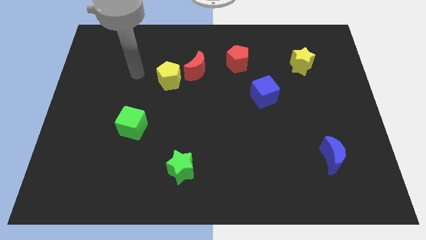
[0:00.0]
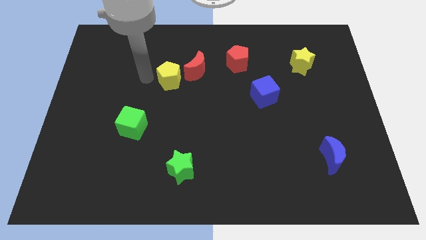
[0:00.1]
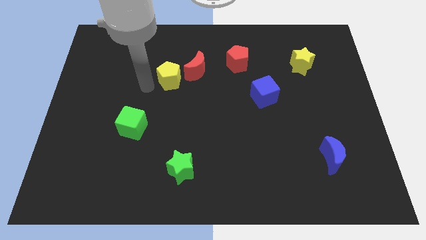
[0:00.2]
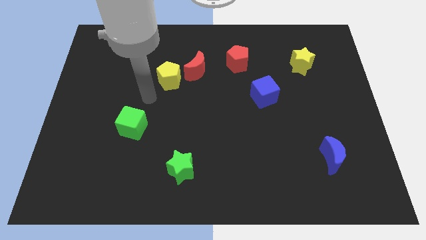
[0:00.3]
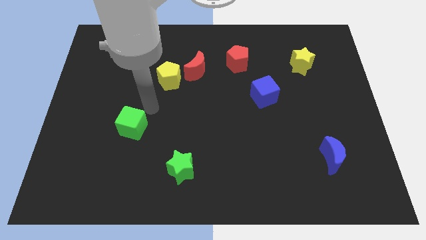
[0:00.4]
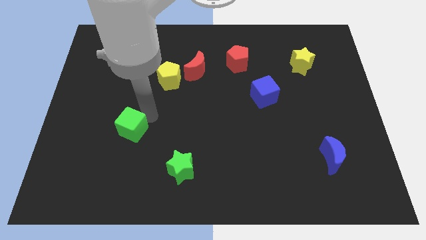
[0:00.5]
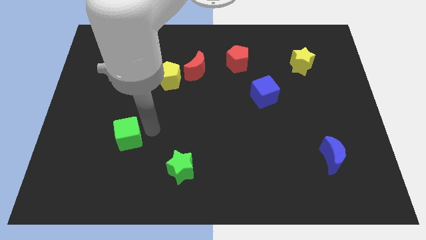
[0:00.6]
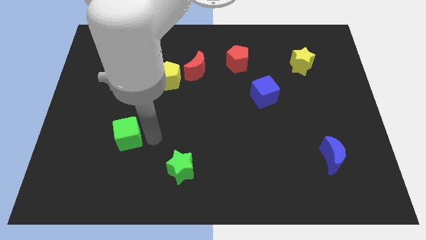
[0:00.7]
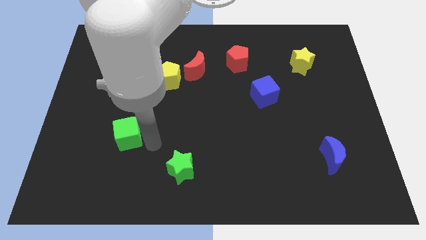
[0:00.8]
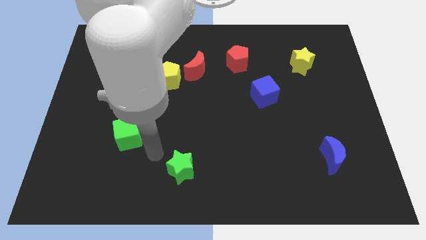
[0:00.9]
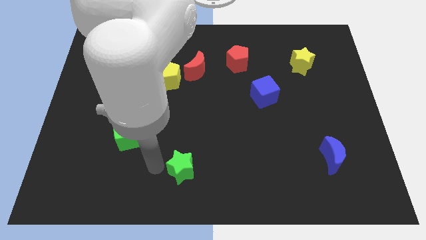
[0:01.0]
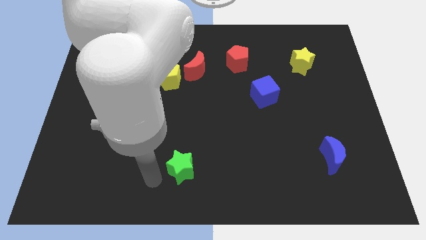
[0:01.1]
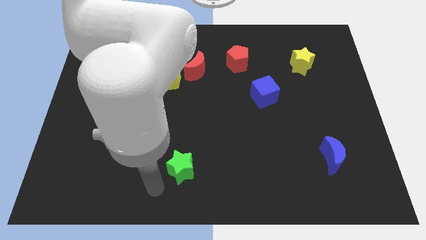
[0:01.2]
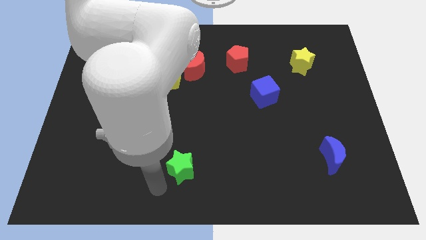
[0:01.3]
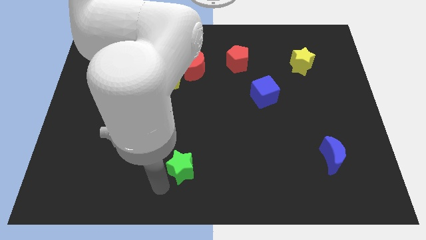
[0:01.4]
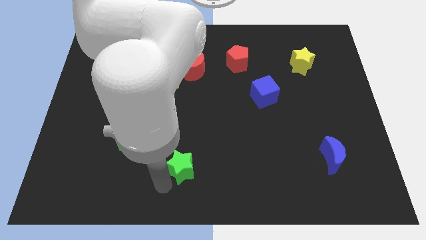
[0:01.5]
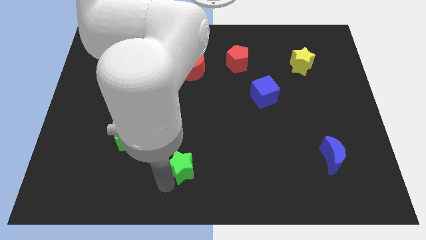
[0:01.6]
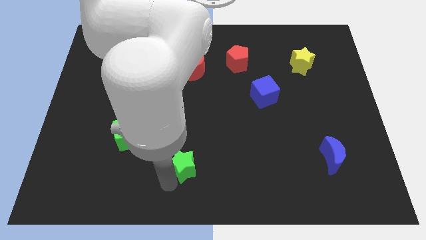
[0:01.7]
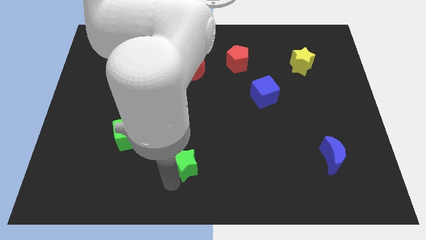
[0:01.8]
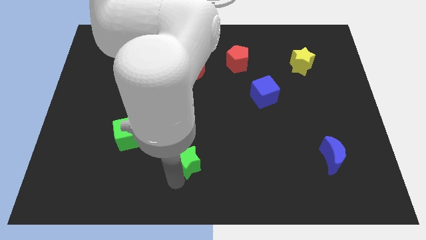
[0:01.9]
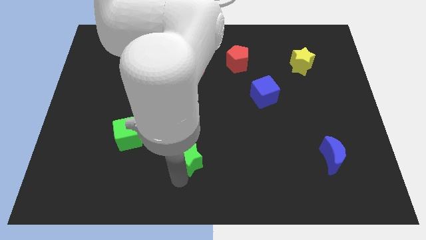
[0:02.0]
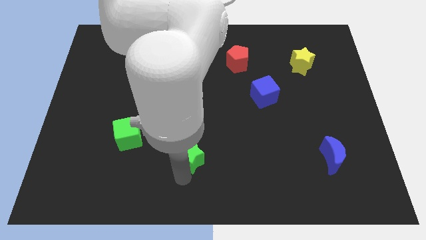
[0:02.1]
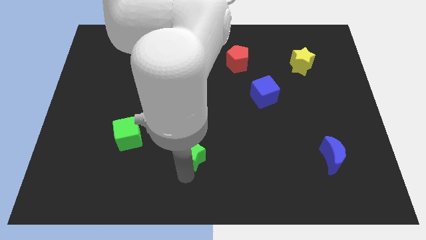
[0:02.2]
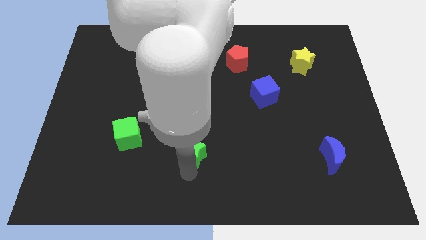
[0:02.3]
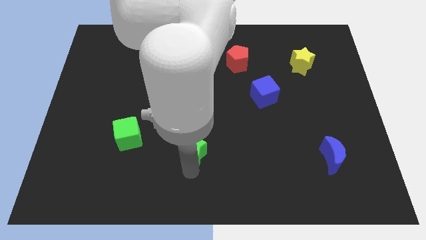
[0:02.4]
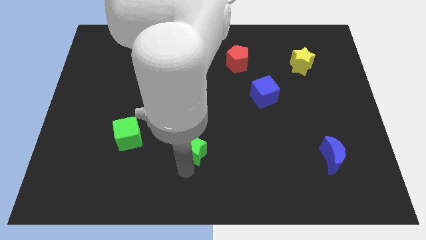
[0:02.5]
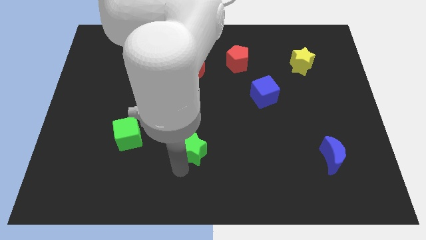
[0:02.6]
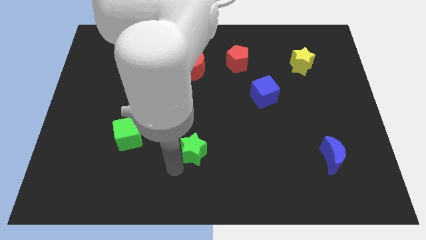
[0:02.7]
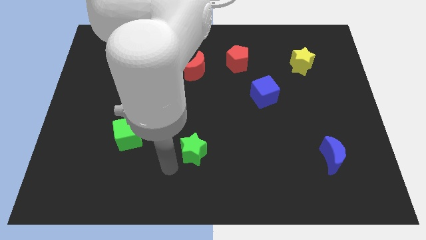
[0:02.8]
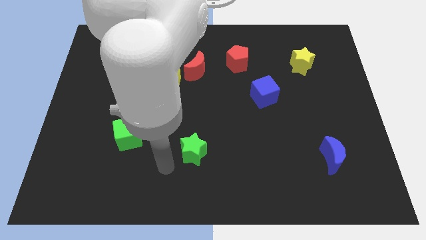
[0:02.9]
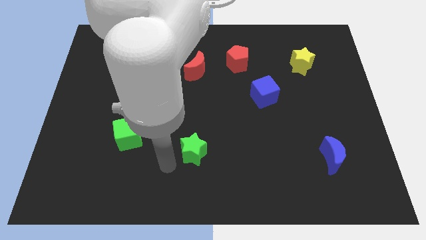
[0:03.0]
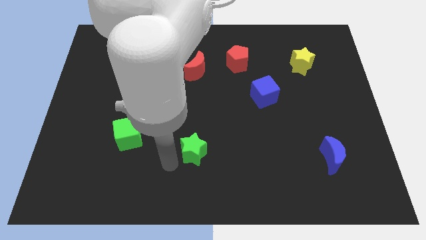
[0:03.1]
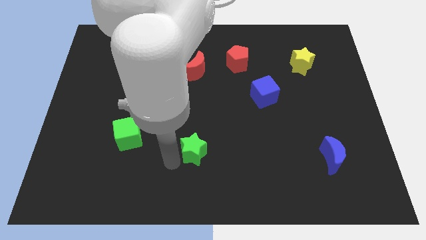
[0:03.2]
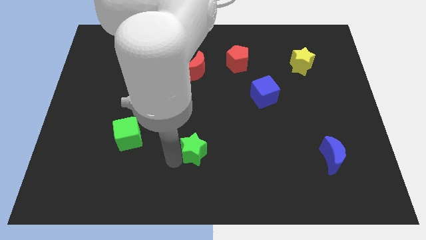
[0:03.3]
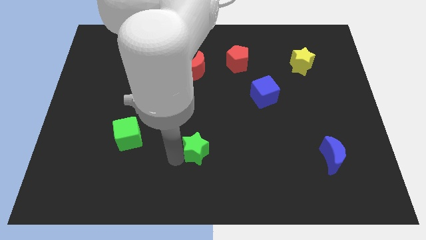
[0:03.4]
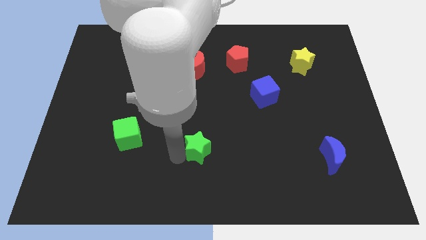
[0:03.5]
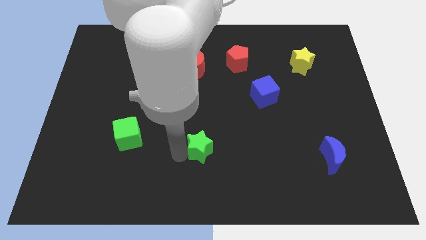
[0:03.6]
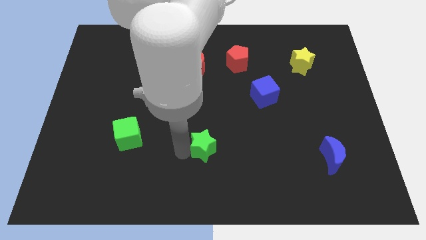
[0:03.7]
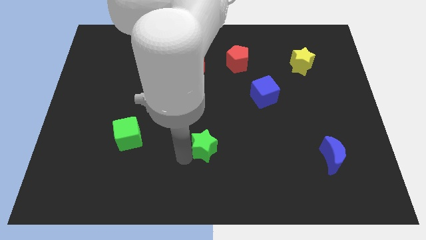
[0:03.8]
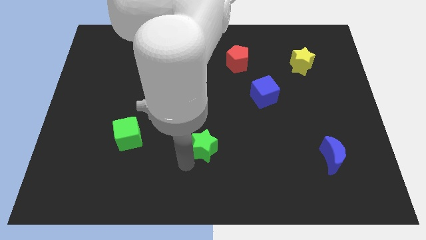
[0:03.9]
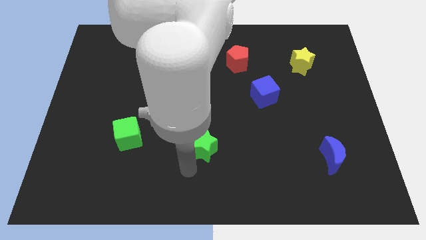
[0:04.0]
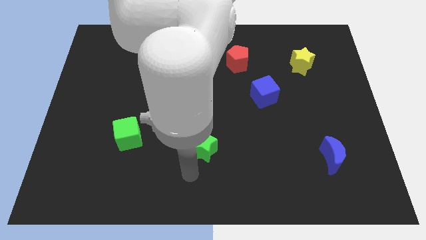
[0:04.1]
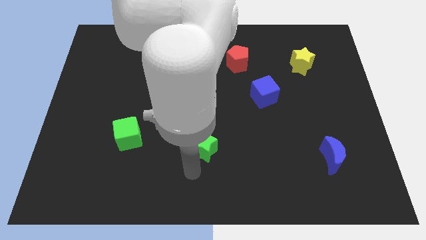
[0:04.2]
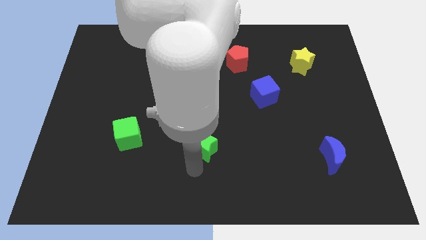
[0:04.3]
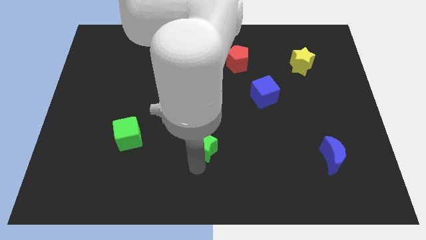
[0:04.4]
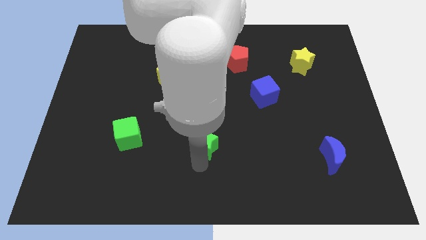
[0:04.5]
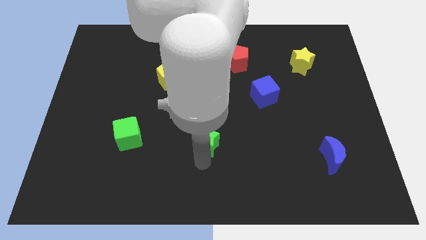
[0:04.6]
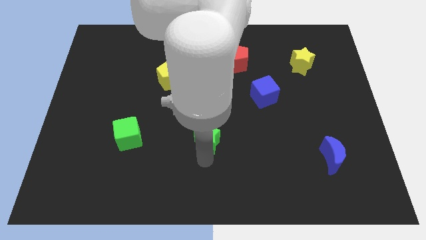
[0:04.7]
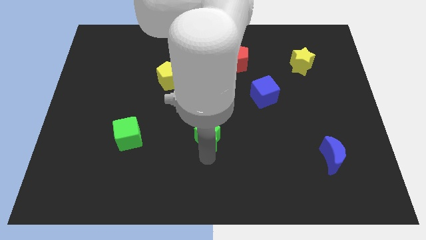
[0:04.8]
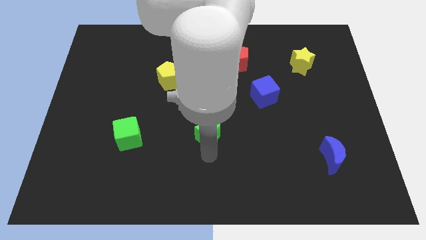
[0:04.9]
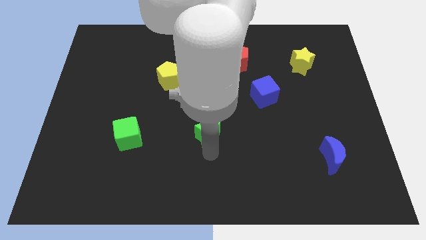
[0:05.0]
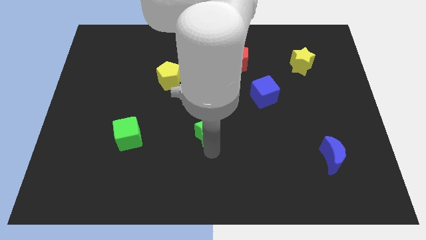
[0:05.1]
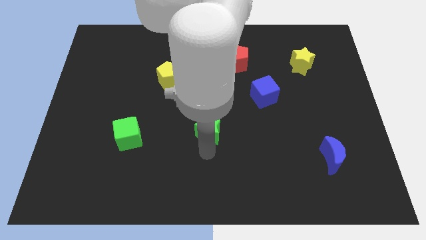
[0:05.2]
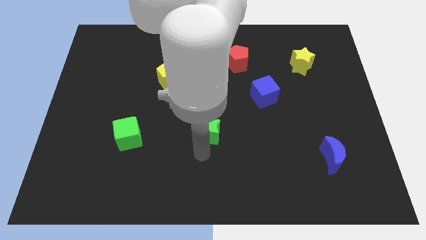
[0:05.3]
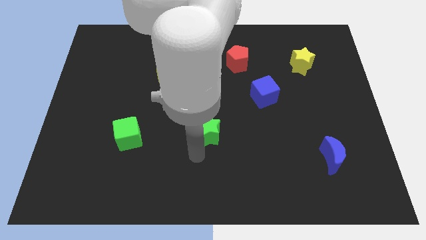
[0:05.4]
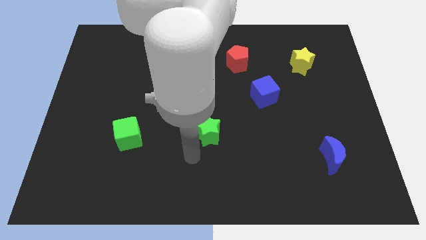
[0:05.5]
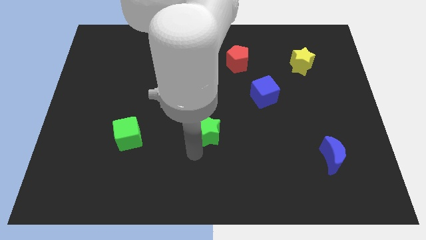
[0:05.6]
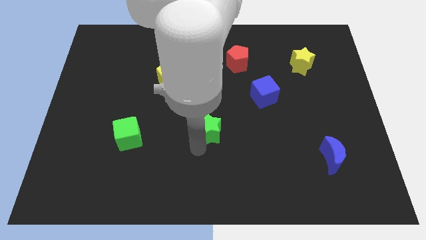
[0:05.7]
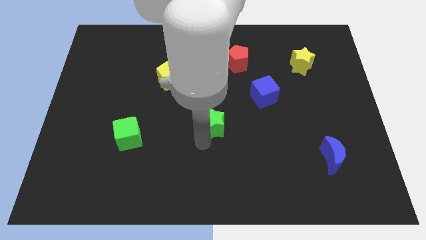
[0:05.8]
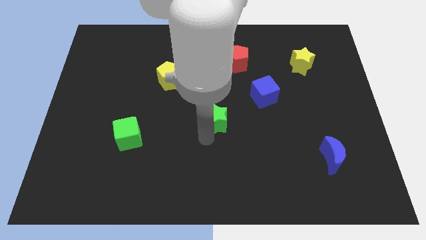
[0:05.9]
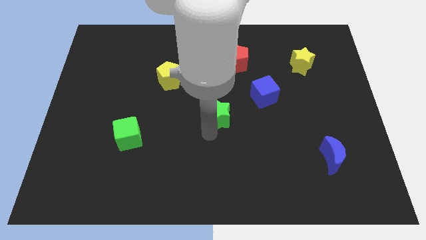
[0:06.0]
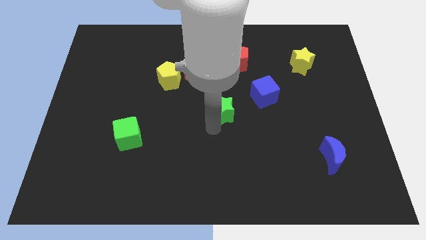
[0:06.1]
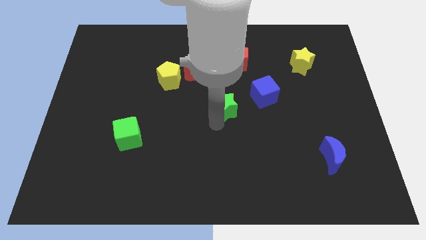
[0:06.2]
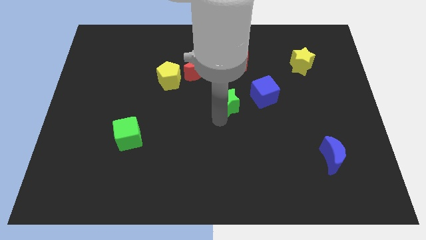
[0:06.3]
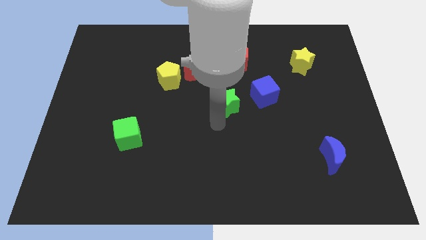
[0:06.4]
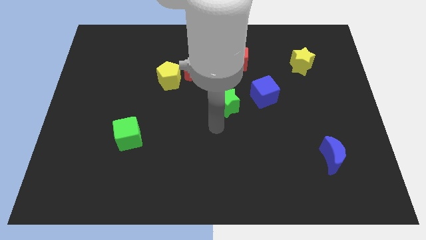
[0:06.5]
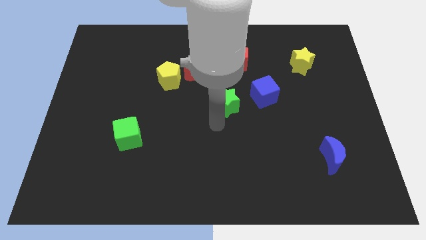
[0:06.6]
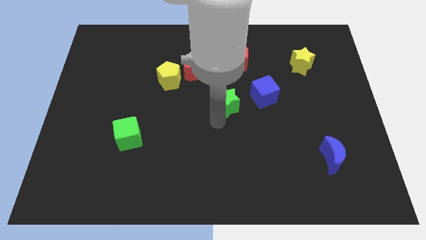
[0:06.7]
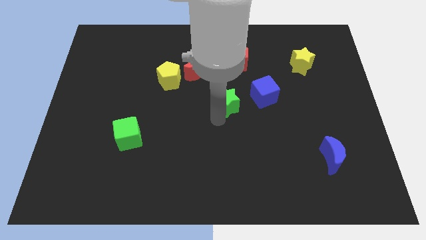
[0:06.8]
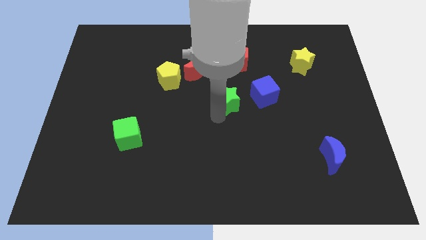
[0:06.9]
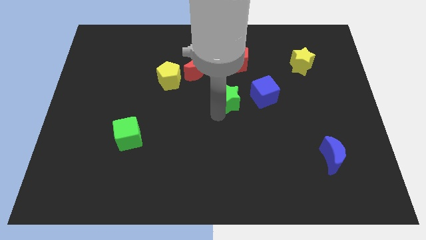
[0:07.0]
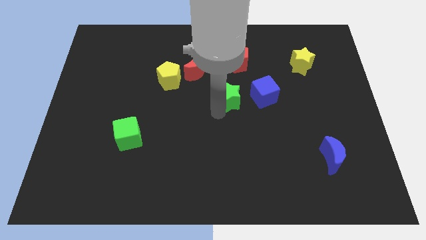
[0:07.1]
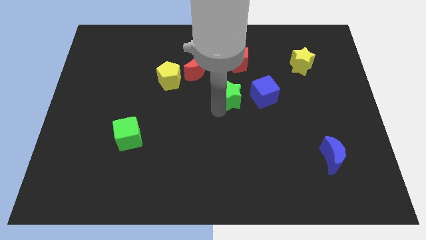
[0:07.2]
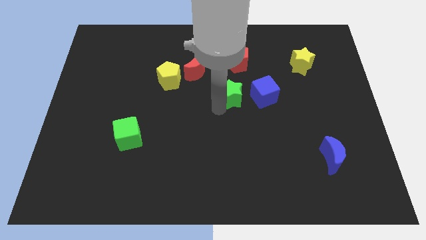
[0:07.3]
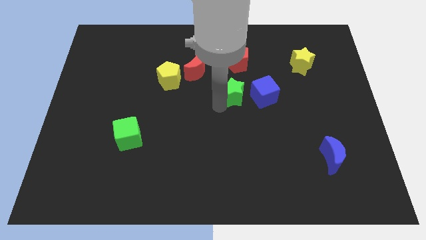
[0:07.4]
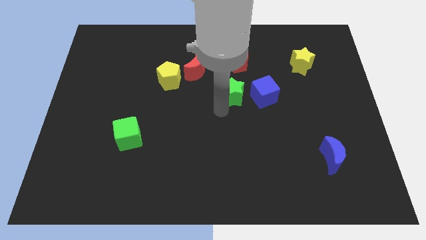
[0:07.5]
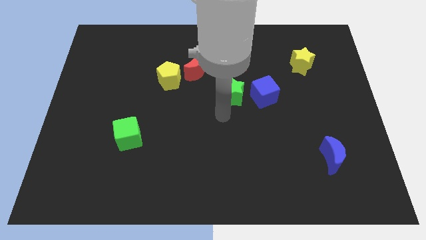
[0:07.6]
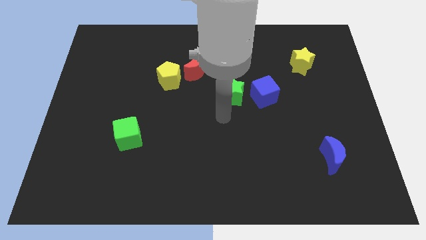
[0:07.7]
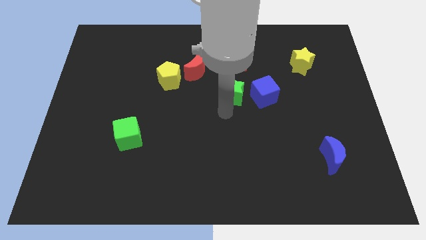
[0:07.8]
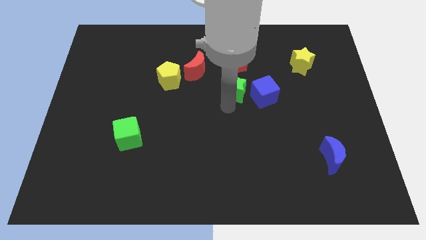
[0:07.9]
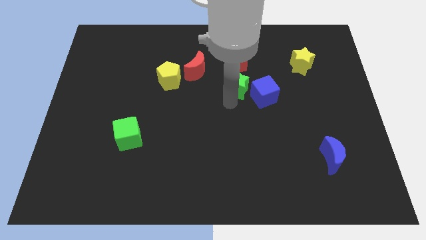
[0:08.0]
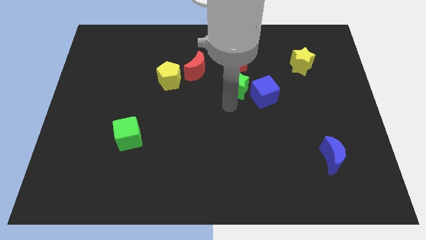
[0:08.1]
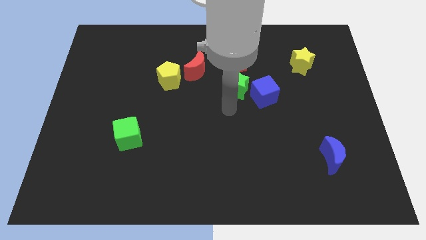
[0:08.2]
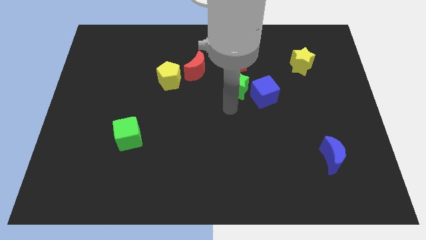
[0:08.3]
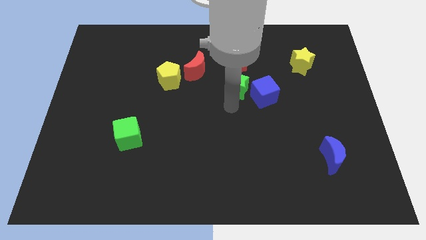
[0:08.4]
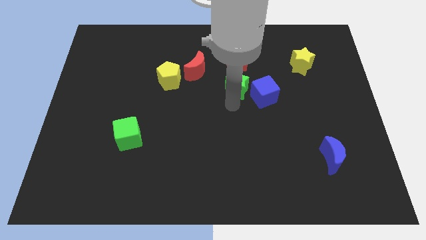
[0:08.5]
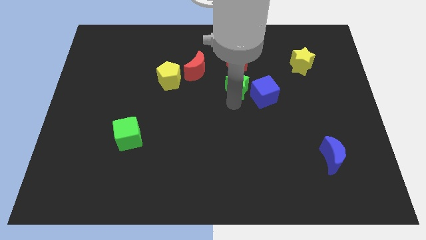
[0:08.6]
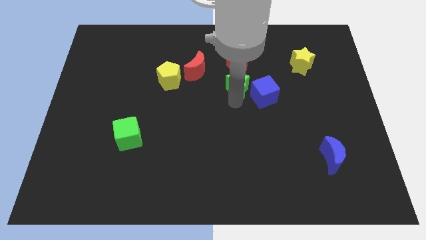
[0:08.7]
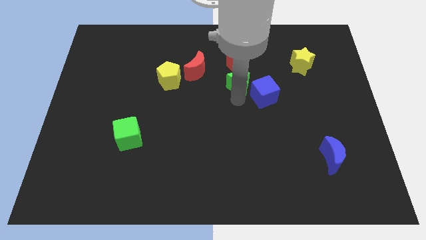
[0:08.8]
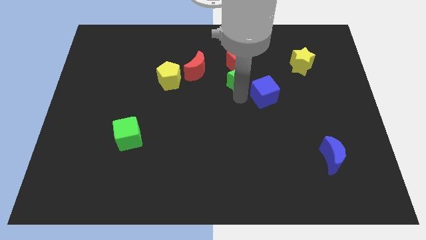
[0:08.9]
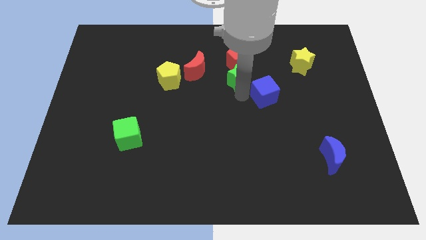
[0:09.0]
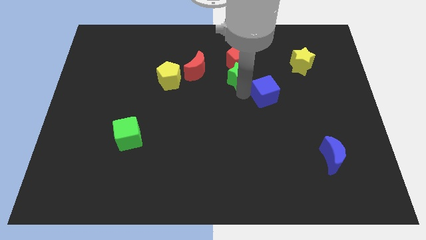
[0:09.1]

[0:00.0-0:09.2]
push the green star close to the red pentagon
